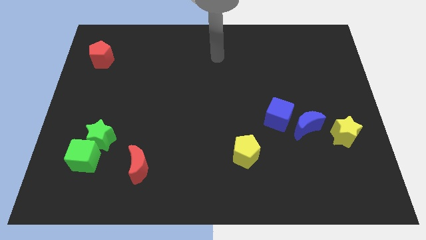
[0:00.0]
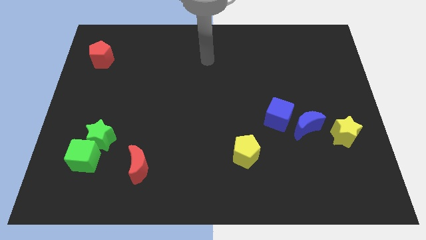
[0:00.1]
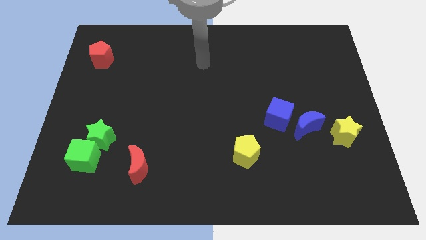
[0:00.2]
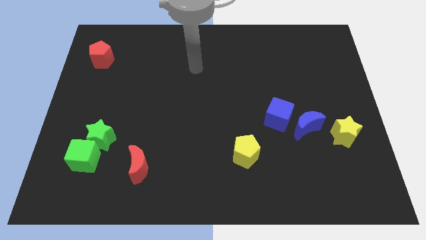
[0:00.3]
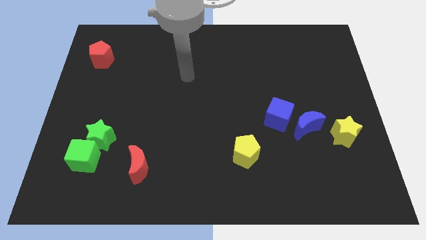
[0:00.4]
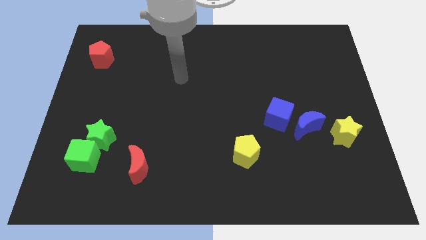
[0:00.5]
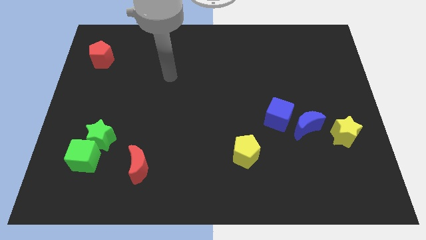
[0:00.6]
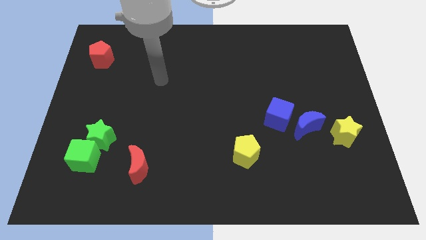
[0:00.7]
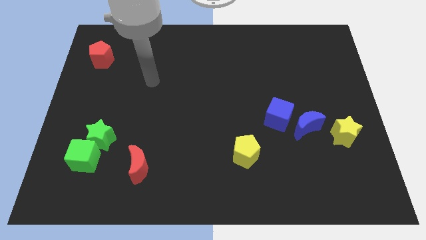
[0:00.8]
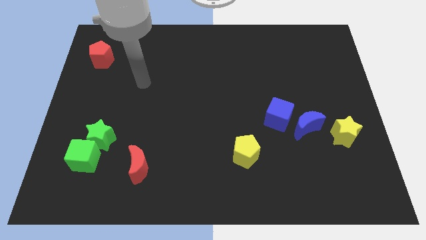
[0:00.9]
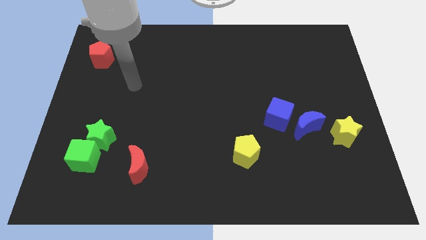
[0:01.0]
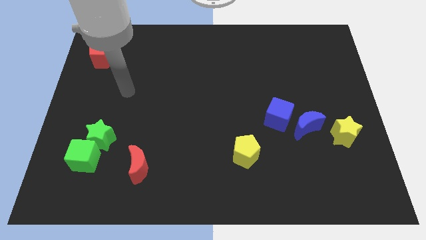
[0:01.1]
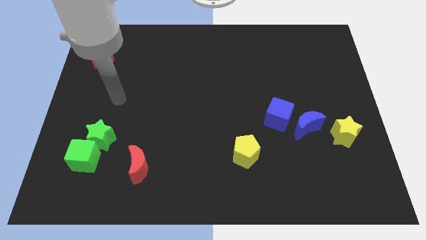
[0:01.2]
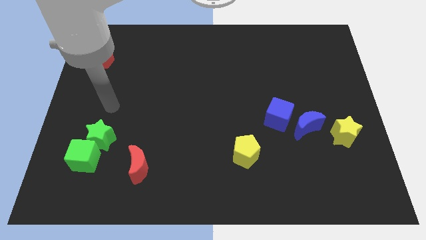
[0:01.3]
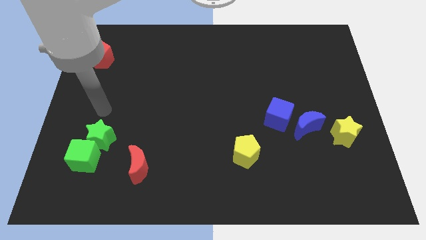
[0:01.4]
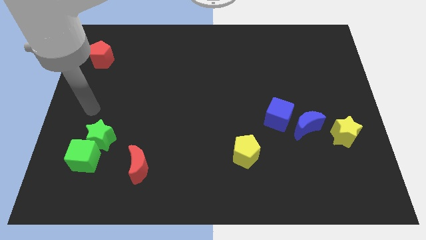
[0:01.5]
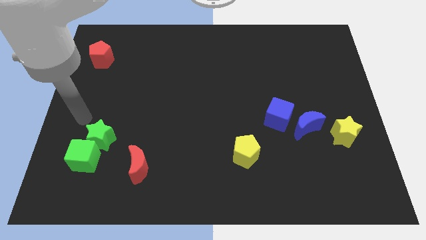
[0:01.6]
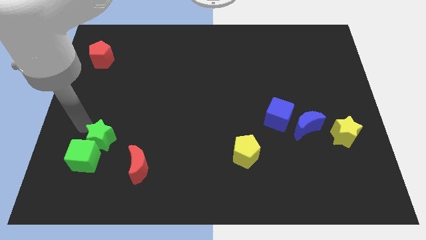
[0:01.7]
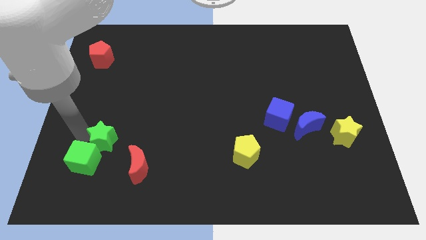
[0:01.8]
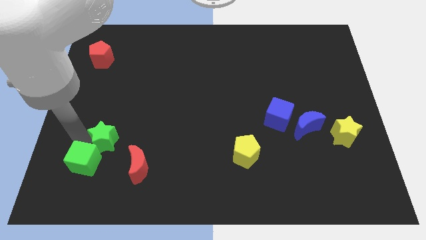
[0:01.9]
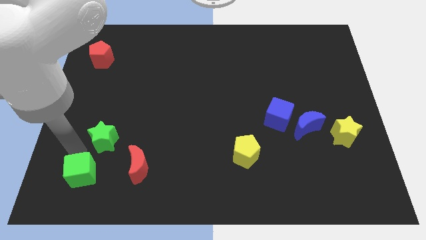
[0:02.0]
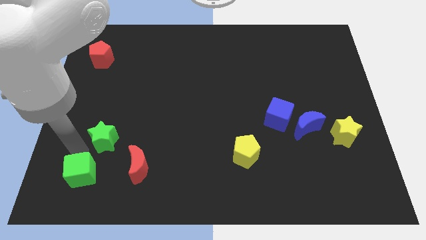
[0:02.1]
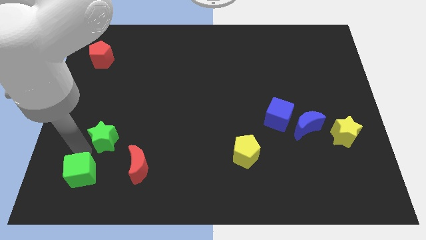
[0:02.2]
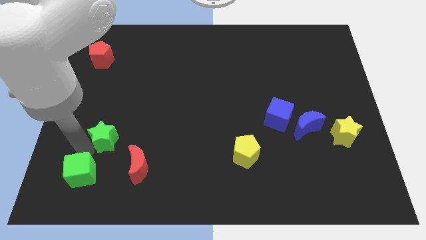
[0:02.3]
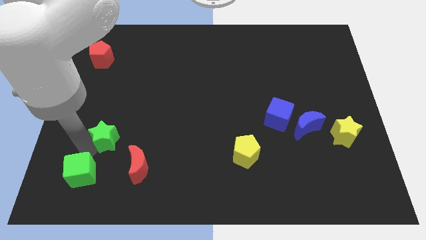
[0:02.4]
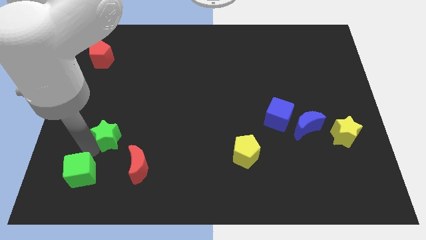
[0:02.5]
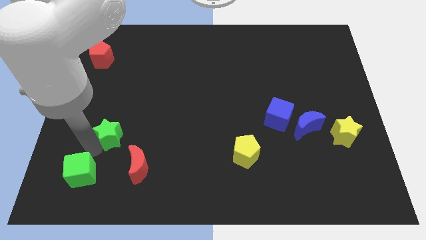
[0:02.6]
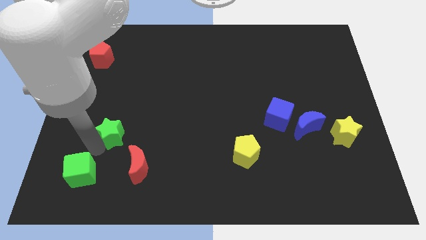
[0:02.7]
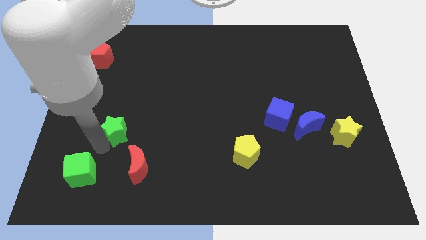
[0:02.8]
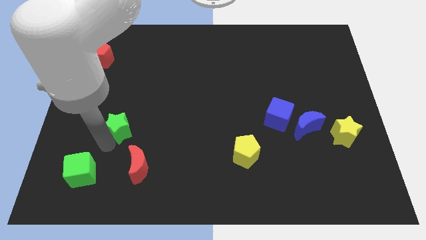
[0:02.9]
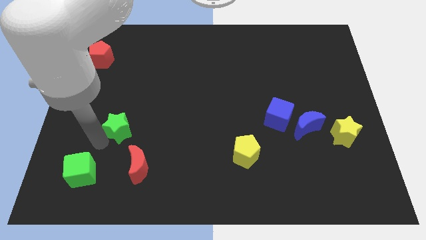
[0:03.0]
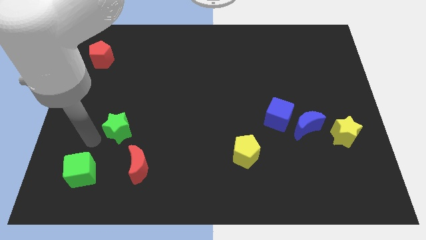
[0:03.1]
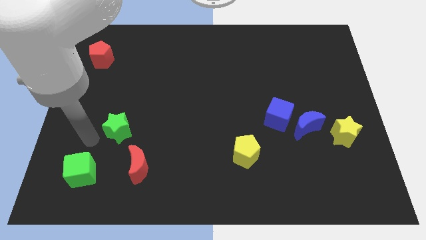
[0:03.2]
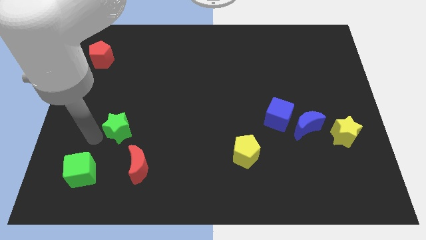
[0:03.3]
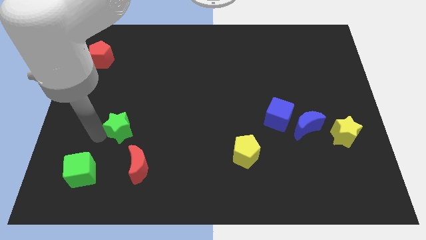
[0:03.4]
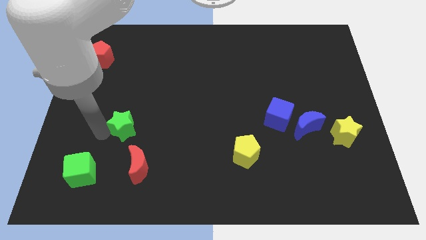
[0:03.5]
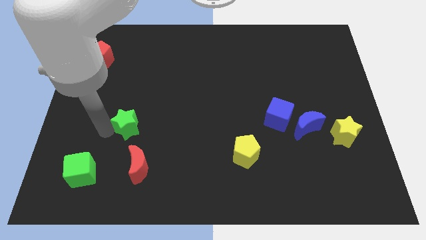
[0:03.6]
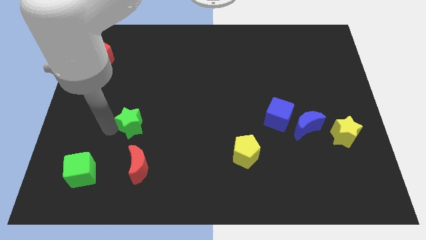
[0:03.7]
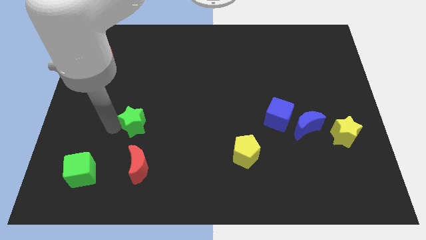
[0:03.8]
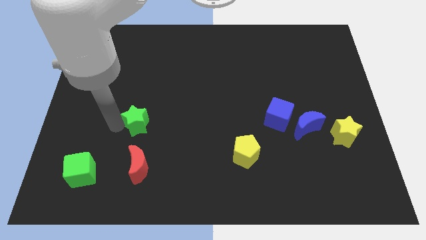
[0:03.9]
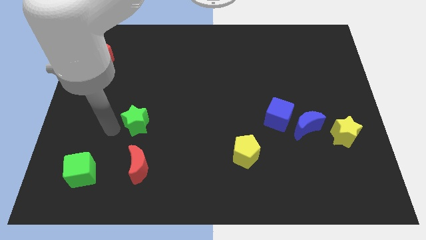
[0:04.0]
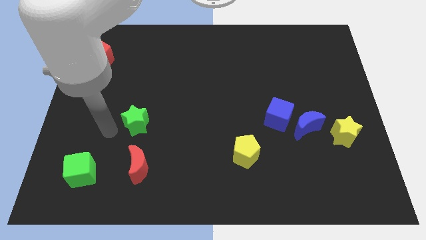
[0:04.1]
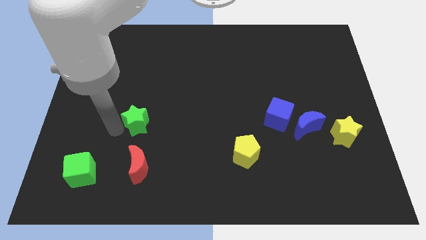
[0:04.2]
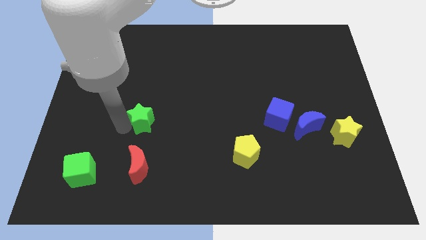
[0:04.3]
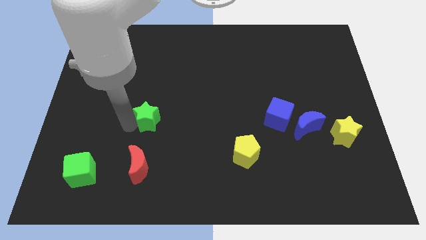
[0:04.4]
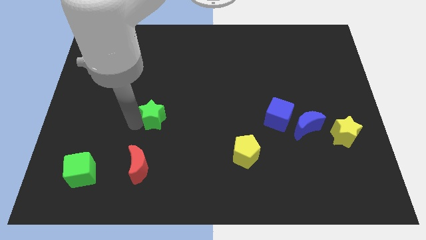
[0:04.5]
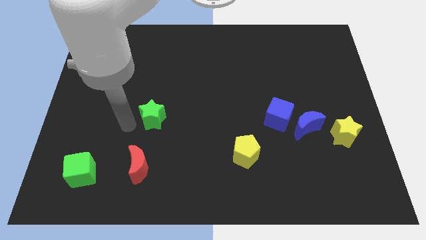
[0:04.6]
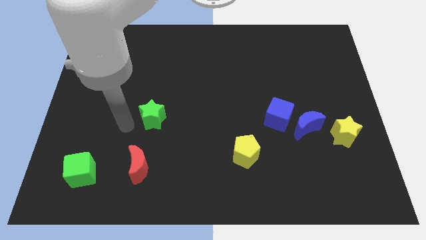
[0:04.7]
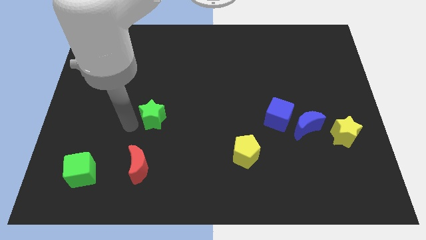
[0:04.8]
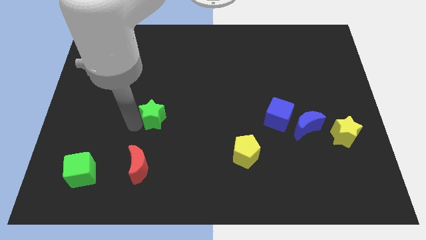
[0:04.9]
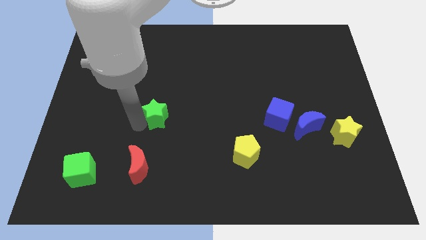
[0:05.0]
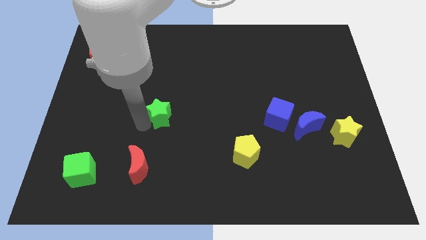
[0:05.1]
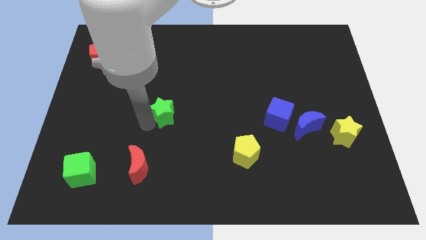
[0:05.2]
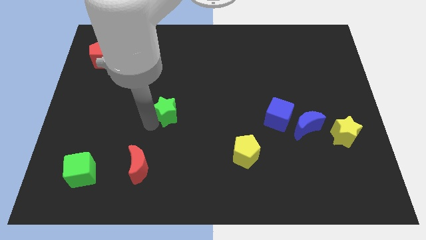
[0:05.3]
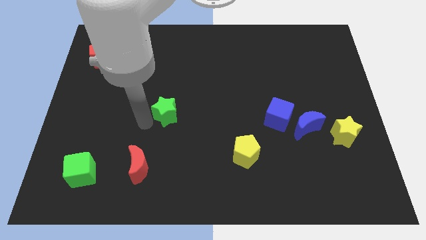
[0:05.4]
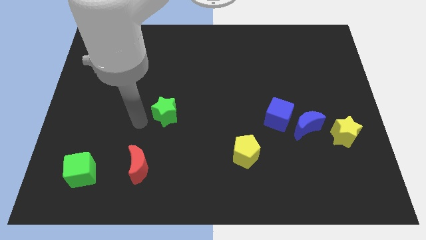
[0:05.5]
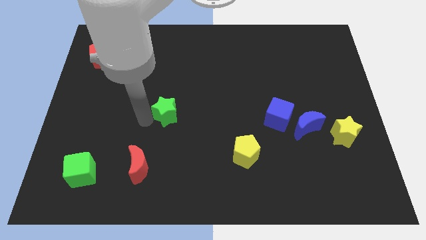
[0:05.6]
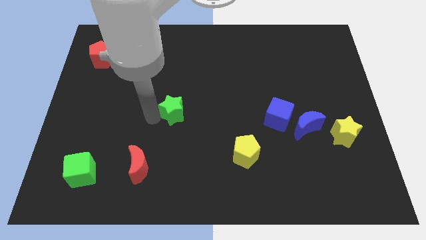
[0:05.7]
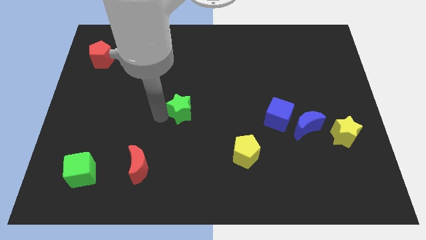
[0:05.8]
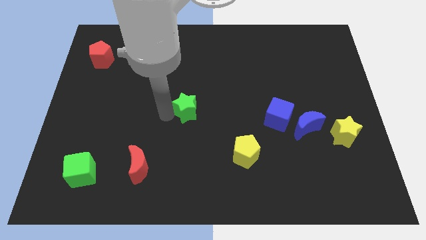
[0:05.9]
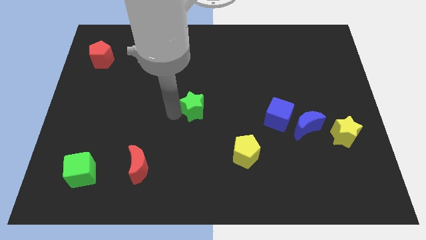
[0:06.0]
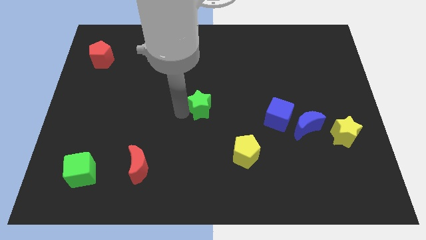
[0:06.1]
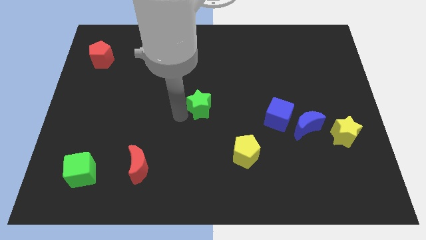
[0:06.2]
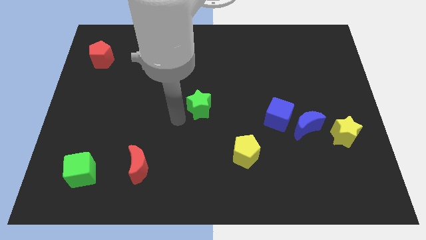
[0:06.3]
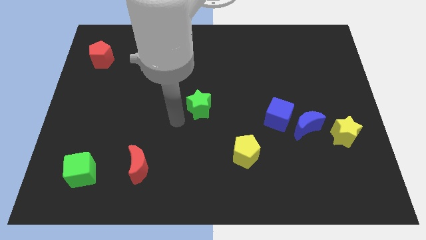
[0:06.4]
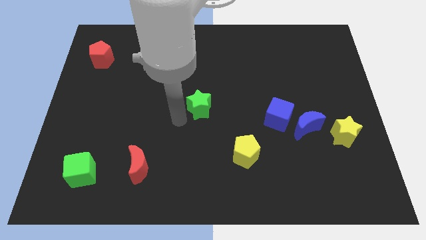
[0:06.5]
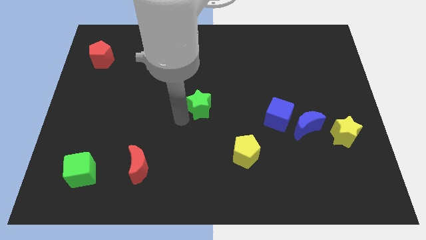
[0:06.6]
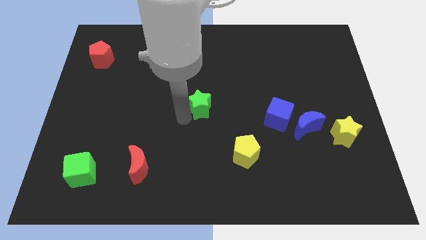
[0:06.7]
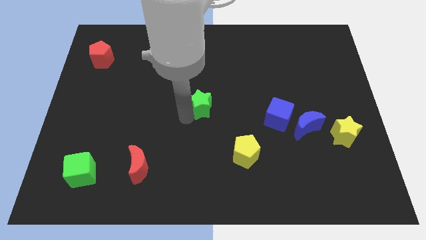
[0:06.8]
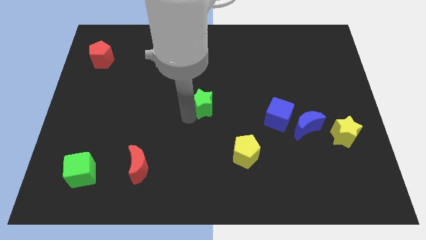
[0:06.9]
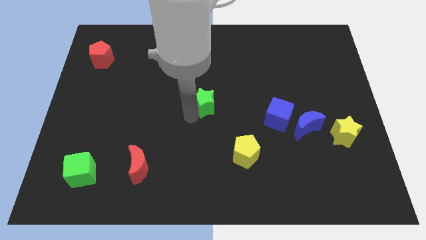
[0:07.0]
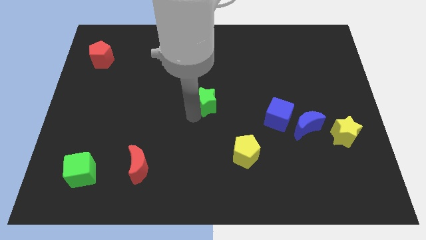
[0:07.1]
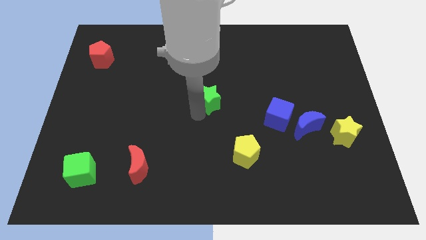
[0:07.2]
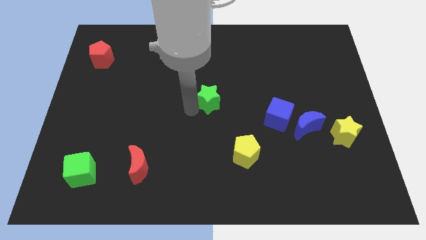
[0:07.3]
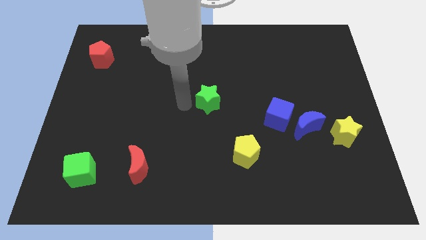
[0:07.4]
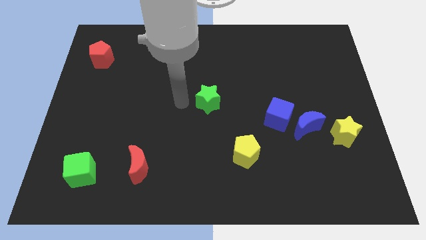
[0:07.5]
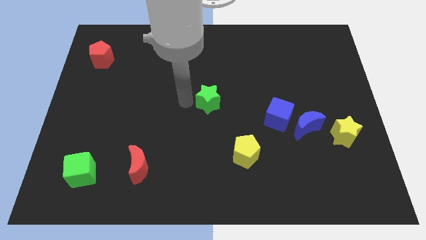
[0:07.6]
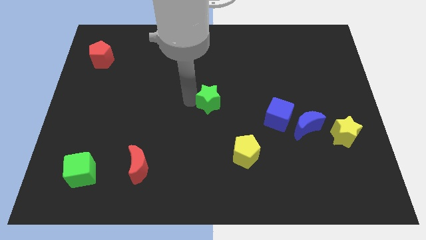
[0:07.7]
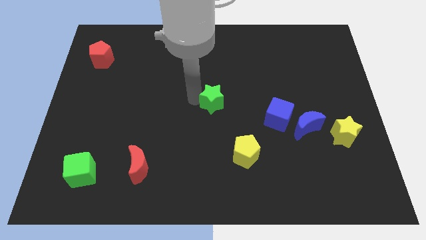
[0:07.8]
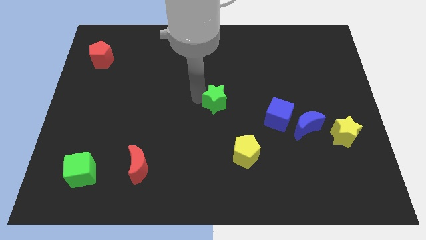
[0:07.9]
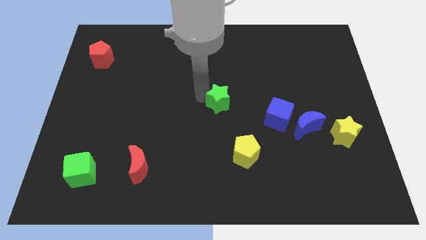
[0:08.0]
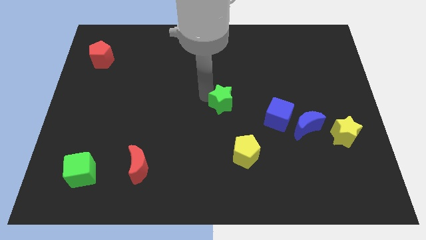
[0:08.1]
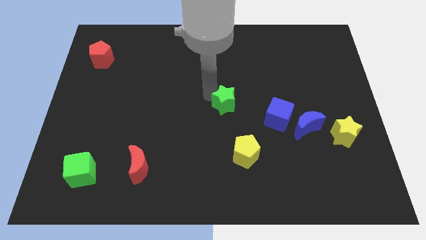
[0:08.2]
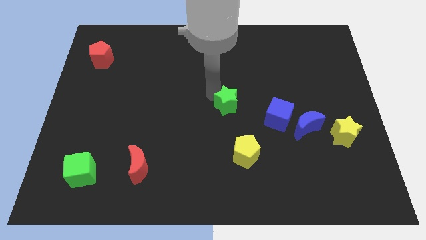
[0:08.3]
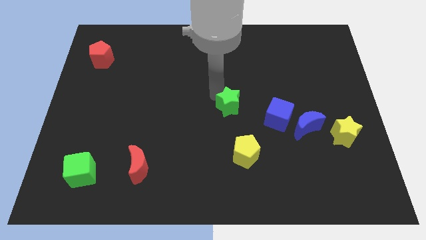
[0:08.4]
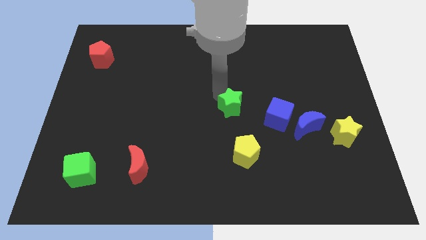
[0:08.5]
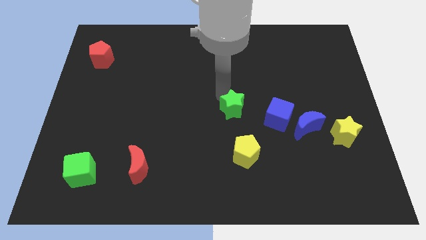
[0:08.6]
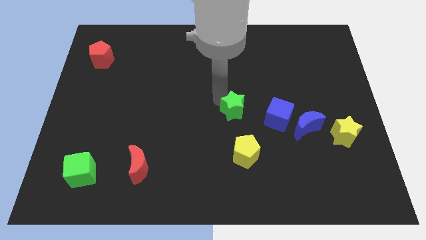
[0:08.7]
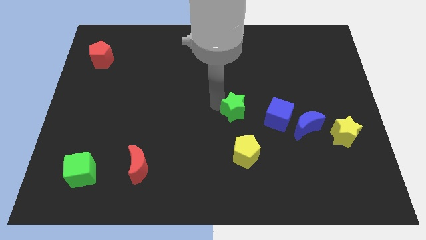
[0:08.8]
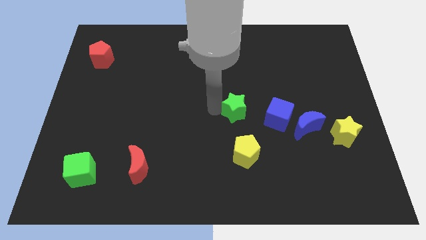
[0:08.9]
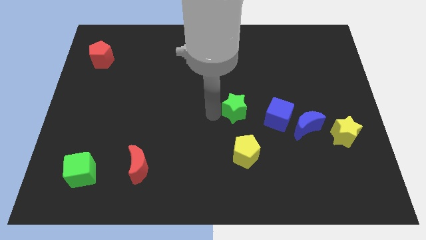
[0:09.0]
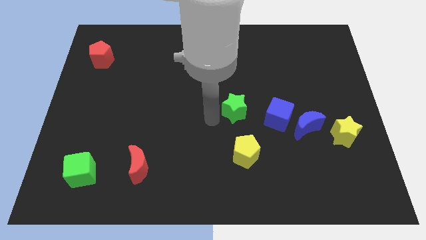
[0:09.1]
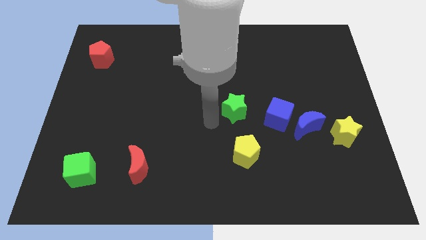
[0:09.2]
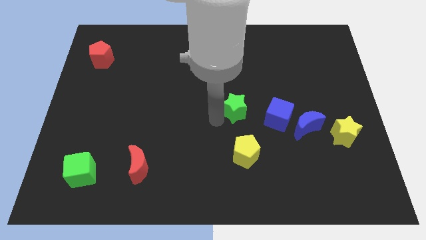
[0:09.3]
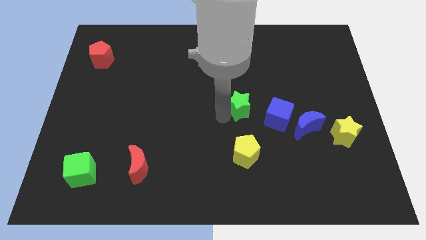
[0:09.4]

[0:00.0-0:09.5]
slide the green star to the top left side of the blue cube
